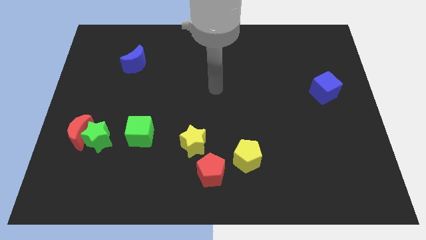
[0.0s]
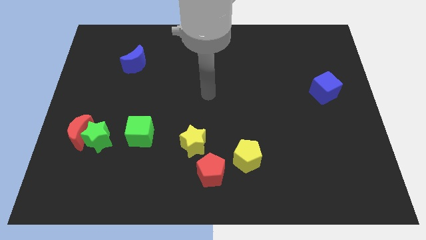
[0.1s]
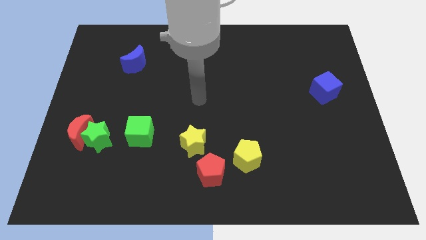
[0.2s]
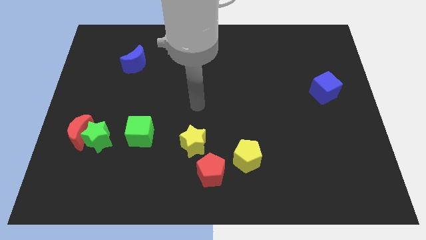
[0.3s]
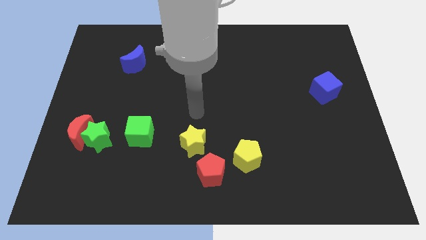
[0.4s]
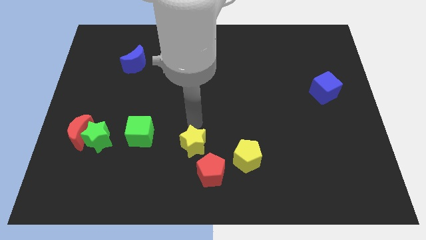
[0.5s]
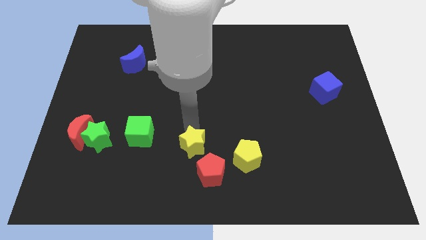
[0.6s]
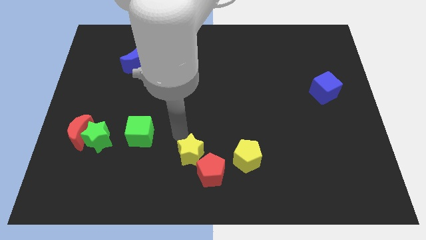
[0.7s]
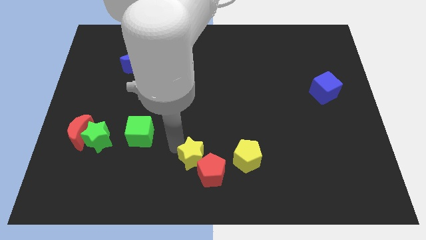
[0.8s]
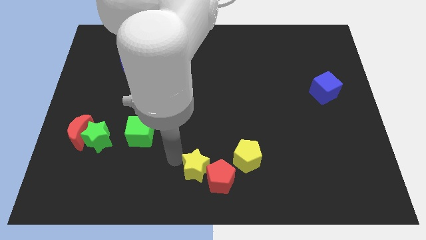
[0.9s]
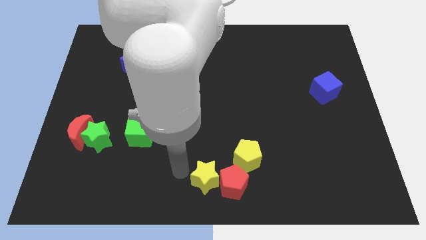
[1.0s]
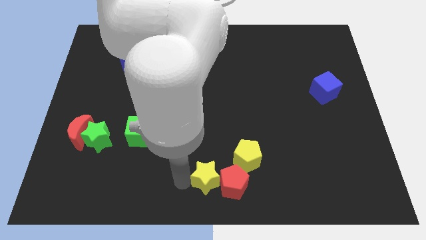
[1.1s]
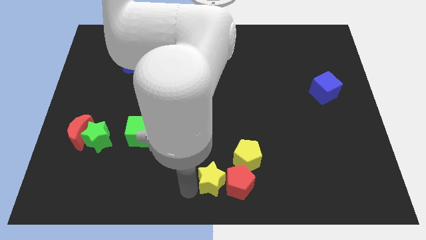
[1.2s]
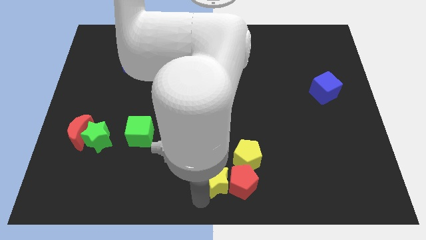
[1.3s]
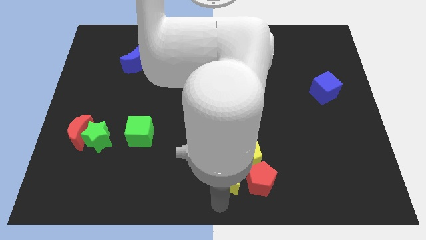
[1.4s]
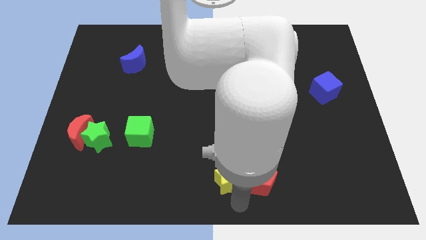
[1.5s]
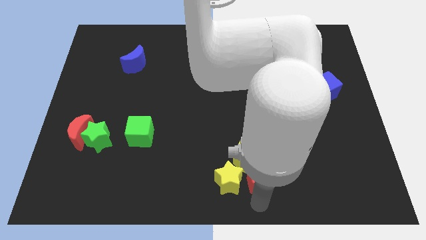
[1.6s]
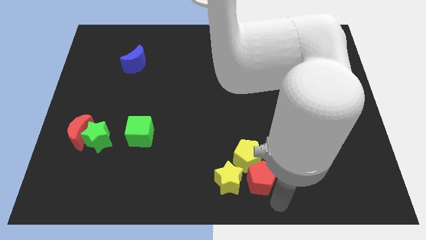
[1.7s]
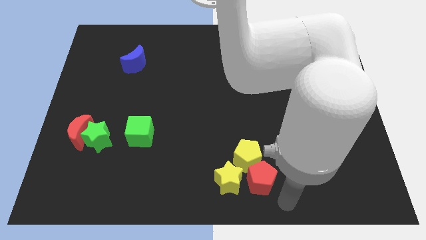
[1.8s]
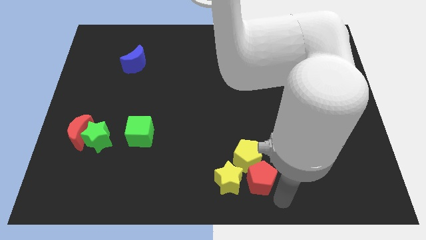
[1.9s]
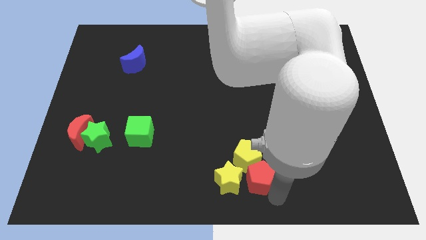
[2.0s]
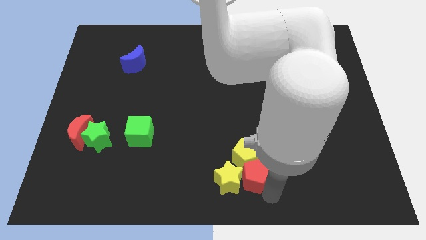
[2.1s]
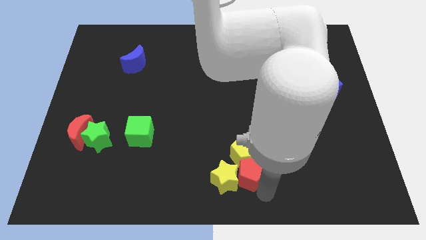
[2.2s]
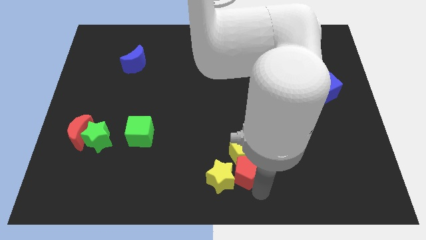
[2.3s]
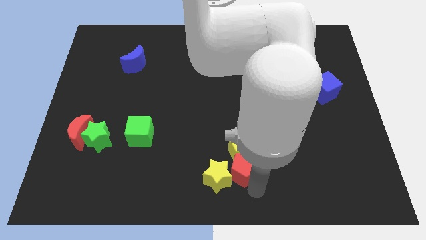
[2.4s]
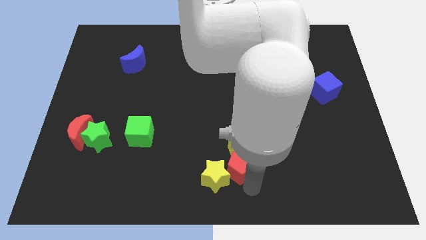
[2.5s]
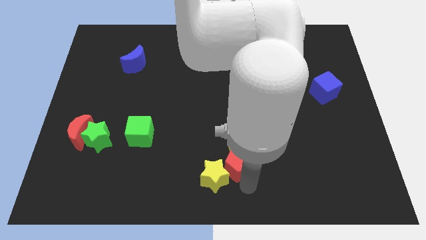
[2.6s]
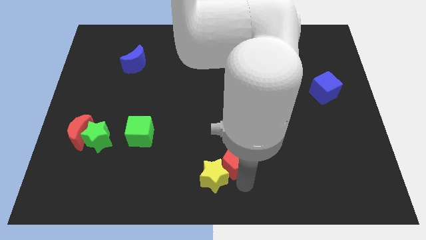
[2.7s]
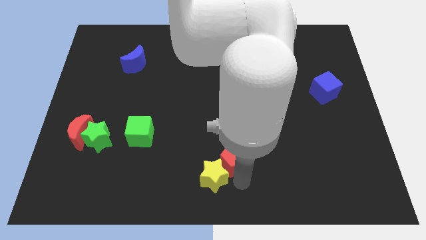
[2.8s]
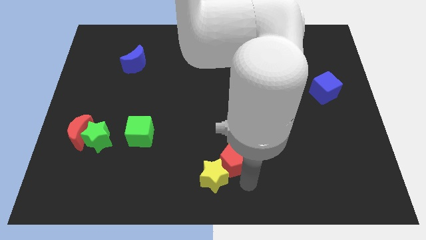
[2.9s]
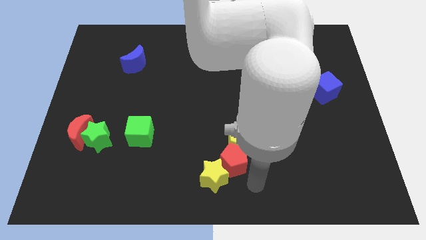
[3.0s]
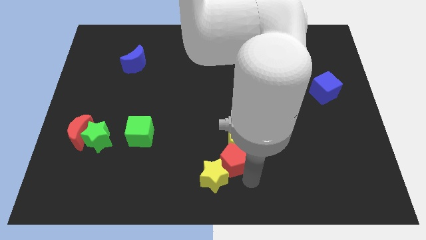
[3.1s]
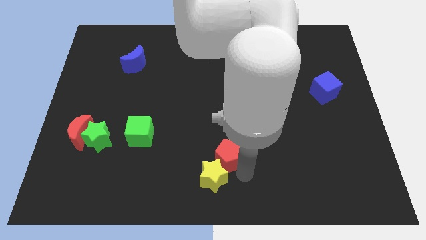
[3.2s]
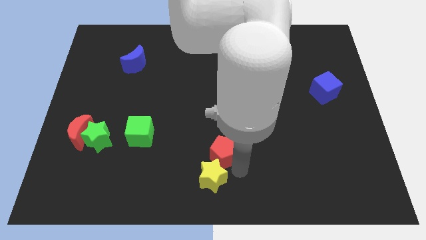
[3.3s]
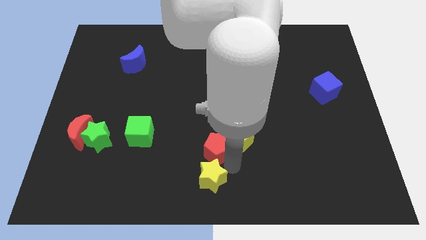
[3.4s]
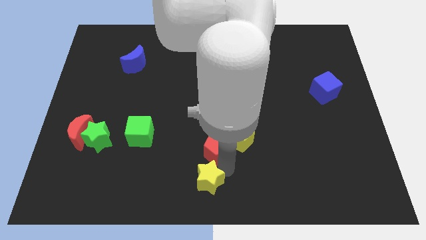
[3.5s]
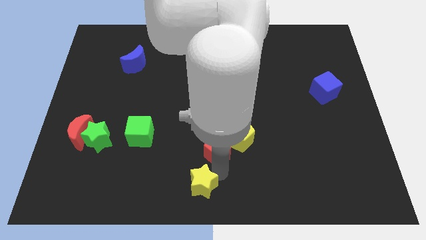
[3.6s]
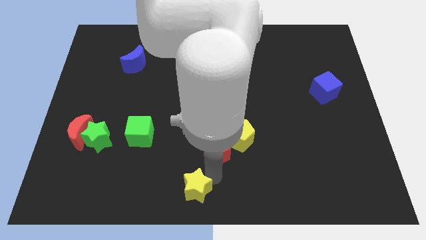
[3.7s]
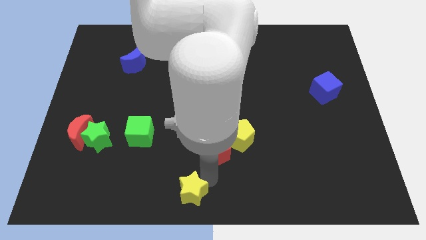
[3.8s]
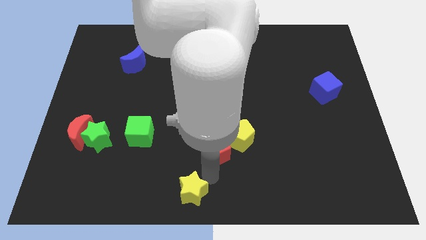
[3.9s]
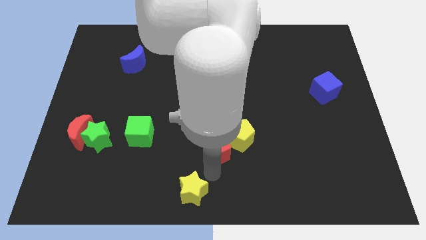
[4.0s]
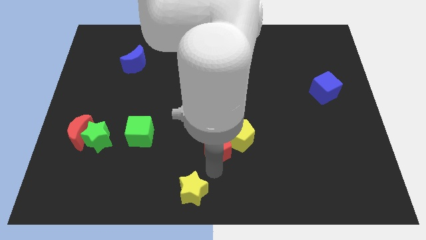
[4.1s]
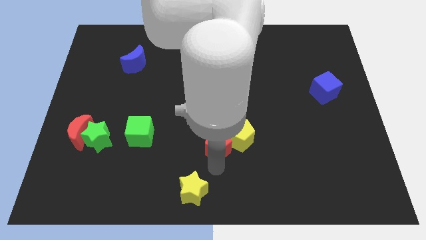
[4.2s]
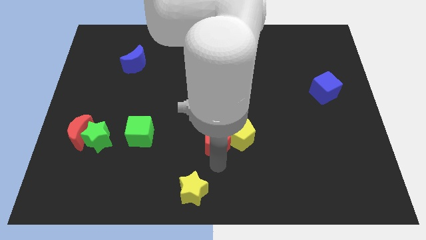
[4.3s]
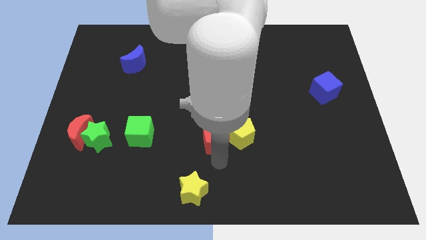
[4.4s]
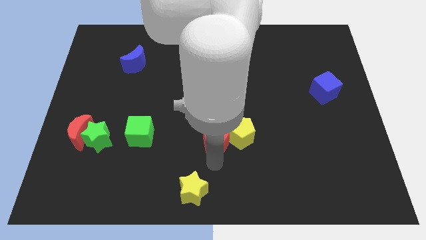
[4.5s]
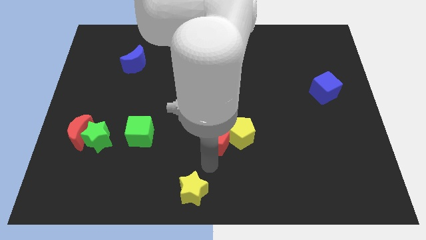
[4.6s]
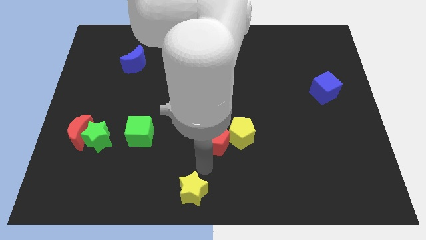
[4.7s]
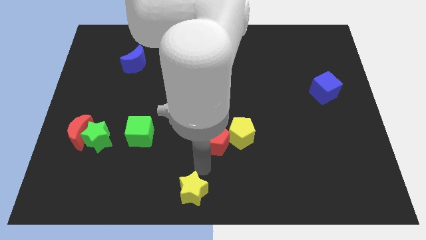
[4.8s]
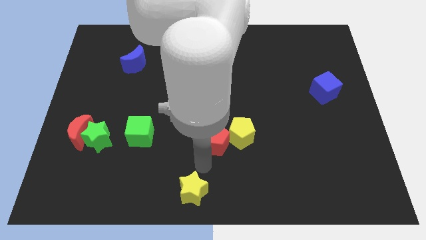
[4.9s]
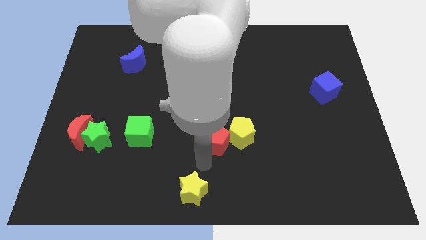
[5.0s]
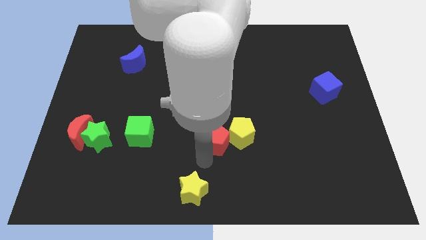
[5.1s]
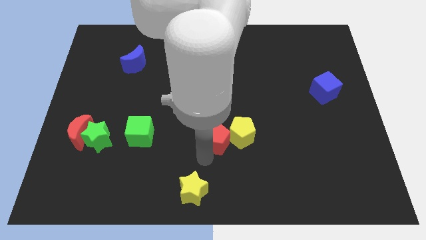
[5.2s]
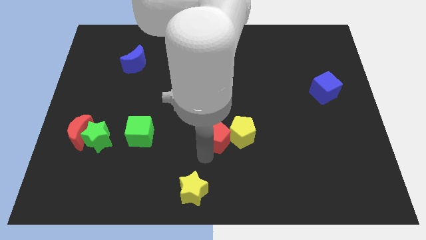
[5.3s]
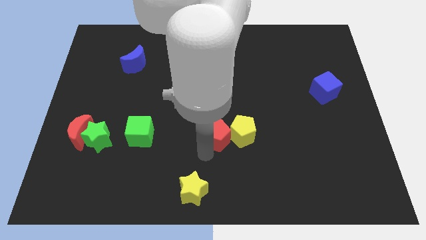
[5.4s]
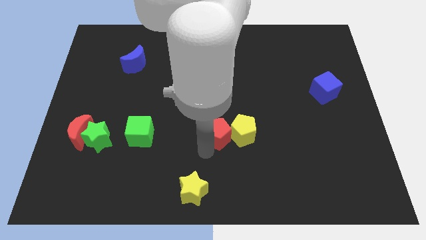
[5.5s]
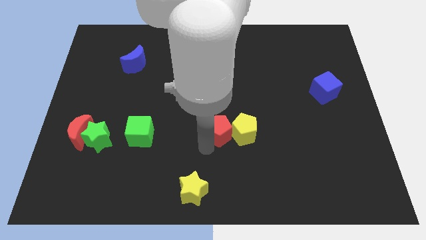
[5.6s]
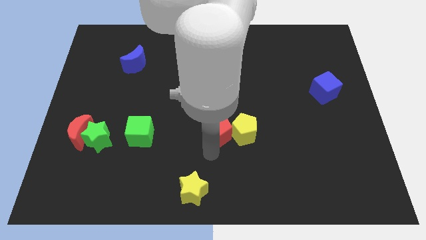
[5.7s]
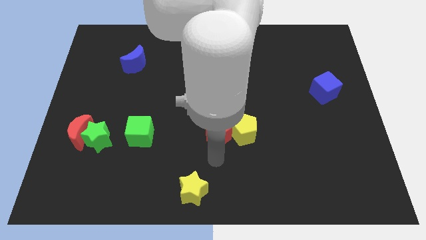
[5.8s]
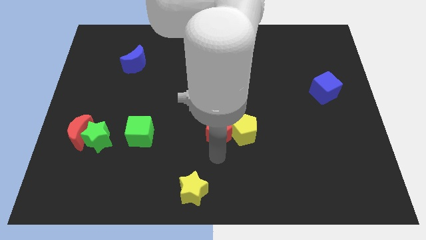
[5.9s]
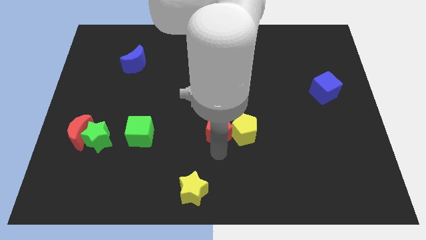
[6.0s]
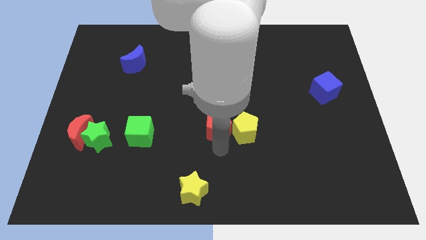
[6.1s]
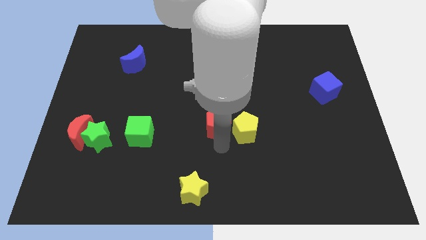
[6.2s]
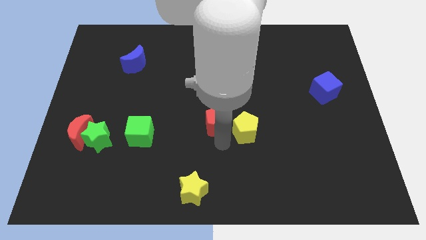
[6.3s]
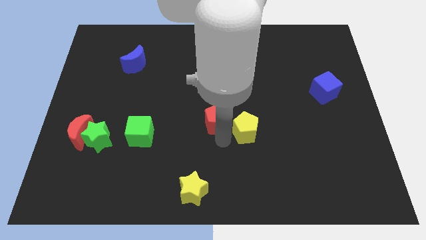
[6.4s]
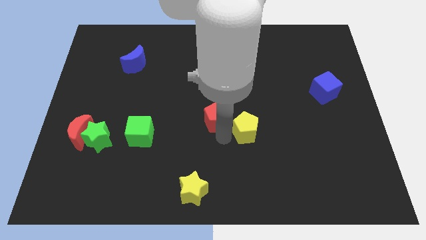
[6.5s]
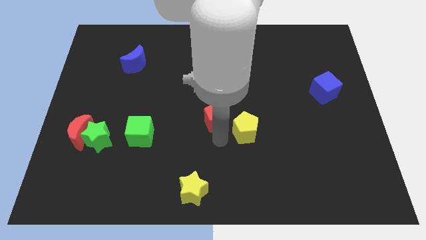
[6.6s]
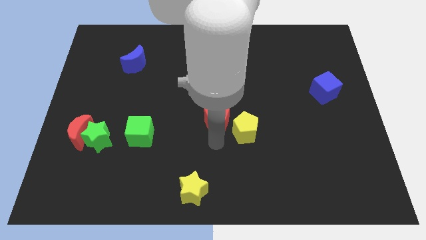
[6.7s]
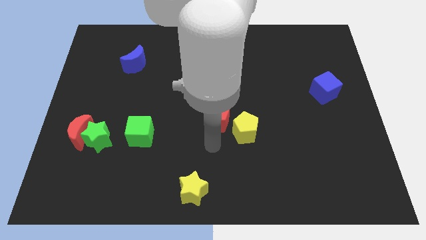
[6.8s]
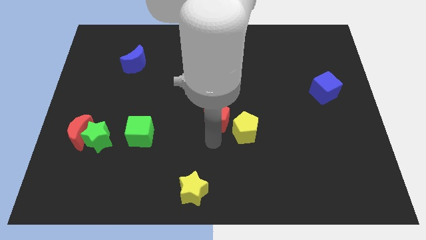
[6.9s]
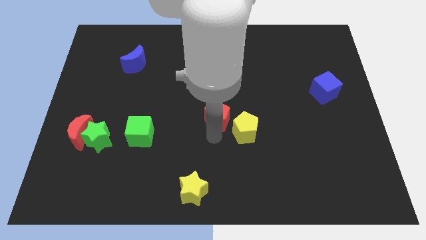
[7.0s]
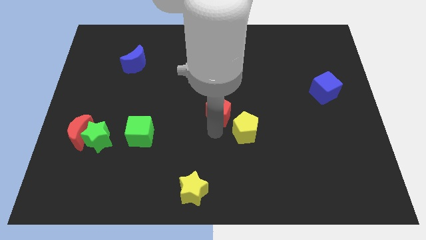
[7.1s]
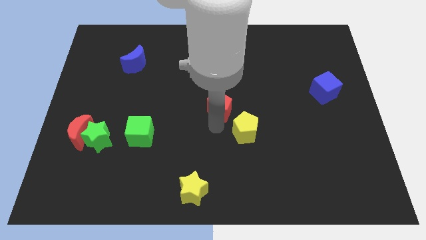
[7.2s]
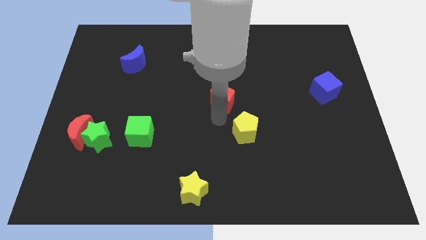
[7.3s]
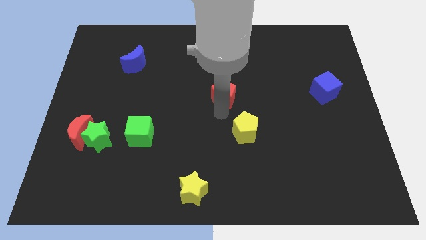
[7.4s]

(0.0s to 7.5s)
push the red pentagon upwards

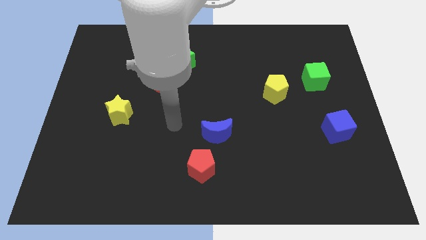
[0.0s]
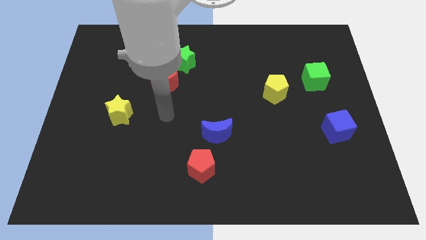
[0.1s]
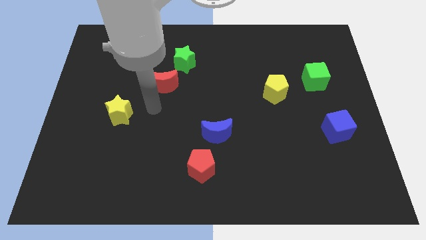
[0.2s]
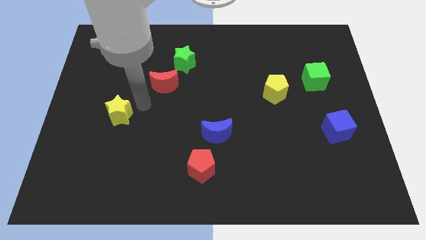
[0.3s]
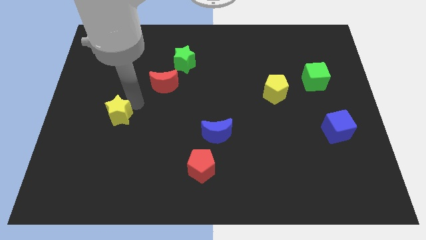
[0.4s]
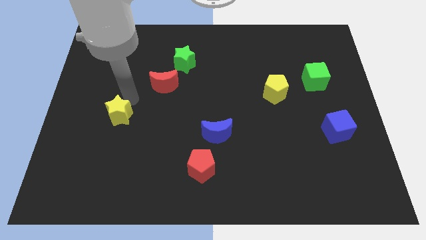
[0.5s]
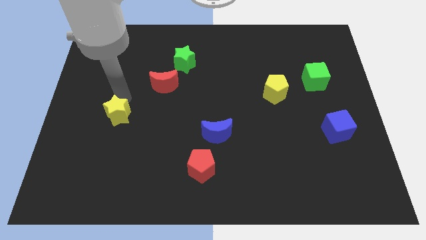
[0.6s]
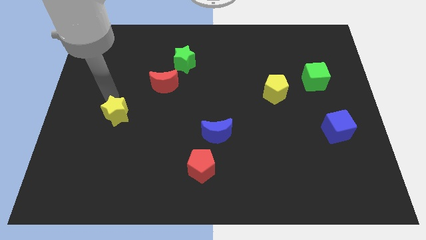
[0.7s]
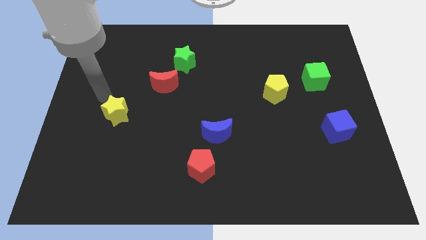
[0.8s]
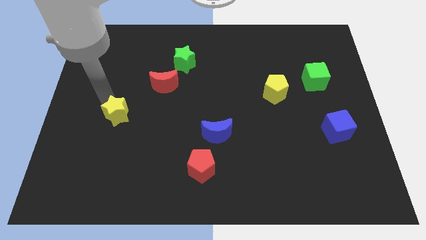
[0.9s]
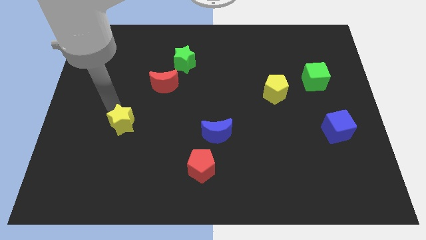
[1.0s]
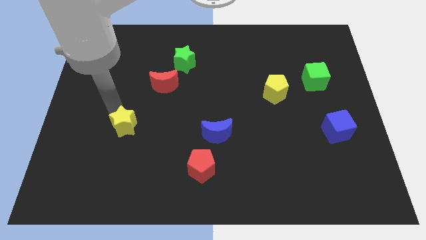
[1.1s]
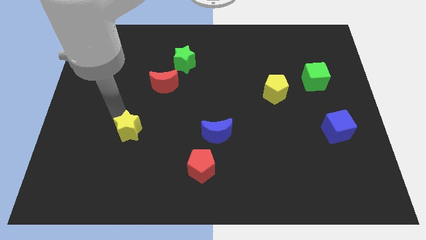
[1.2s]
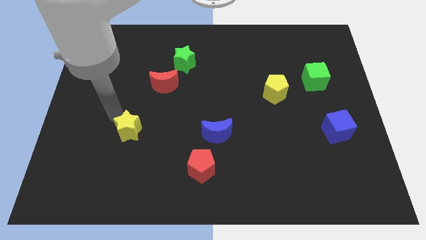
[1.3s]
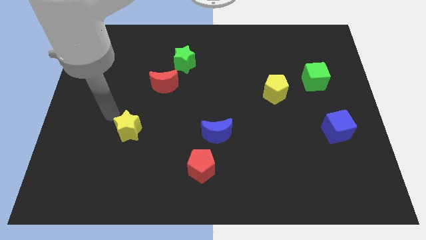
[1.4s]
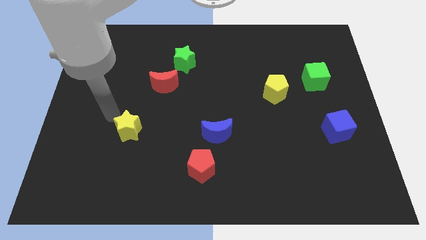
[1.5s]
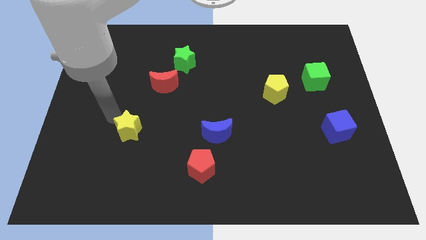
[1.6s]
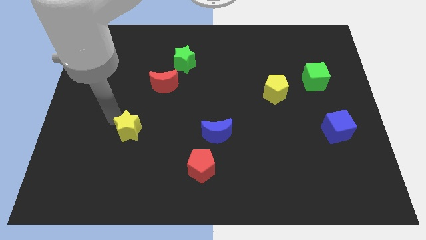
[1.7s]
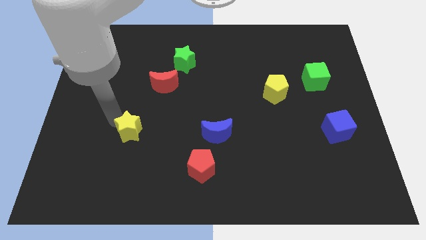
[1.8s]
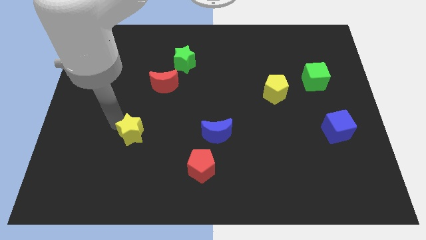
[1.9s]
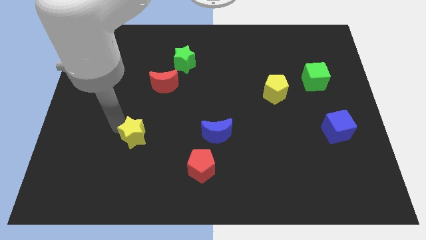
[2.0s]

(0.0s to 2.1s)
slide the yellow star down and right diagonally somewhat
